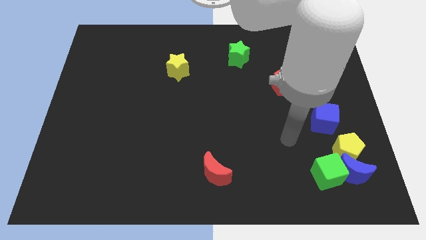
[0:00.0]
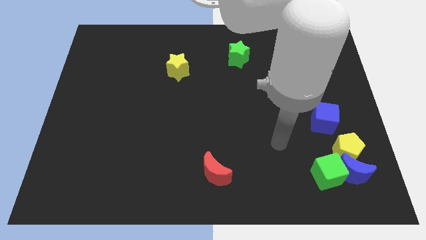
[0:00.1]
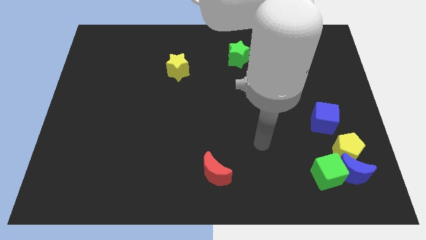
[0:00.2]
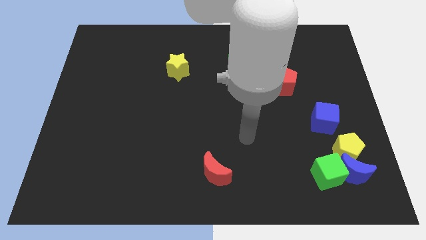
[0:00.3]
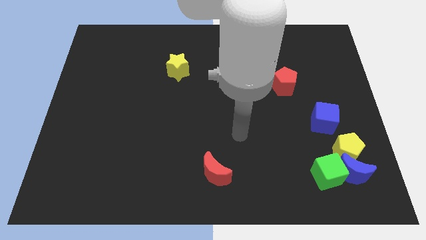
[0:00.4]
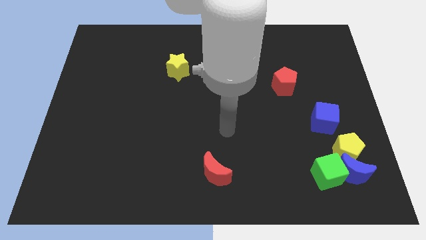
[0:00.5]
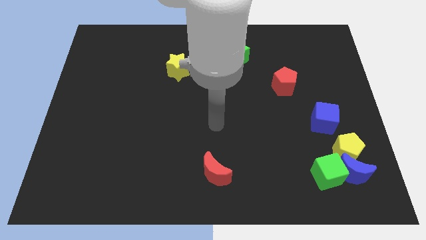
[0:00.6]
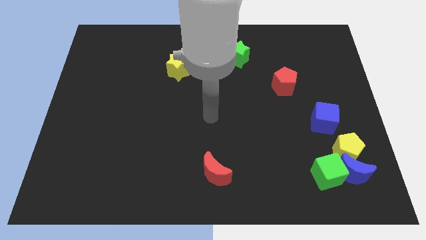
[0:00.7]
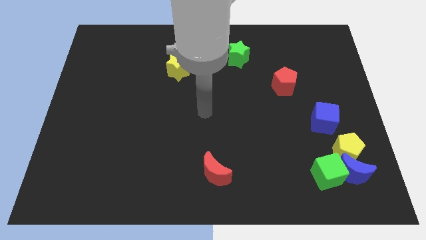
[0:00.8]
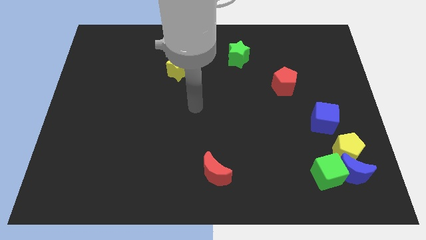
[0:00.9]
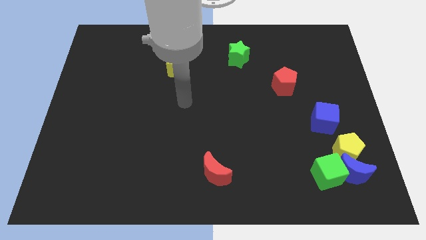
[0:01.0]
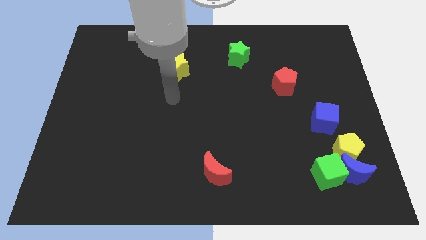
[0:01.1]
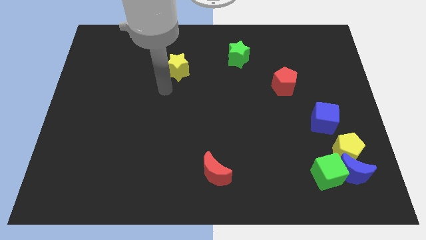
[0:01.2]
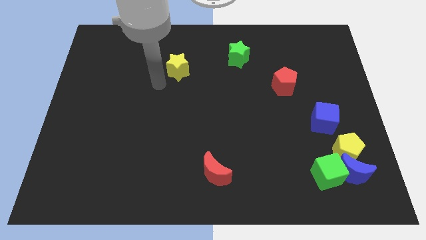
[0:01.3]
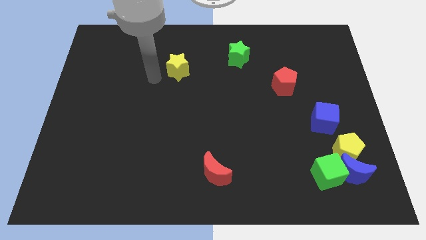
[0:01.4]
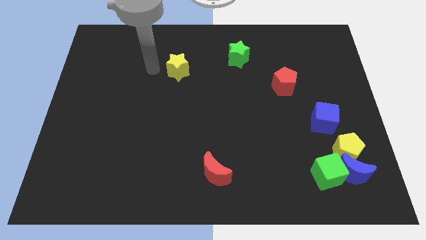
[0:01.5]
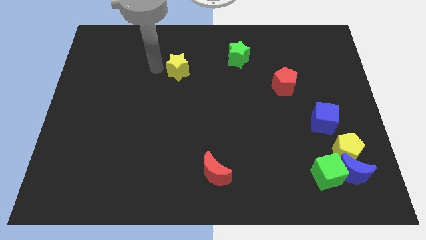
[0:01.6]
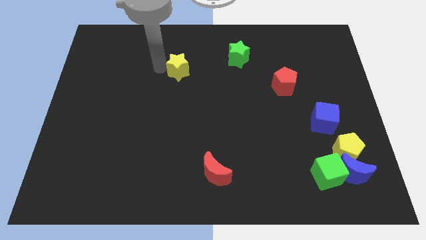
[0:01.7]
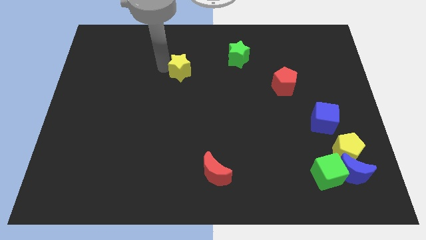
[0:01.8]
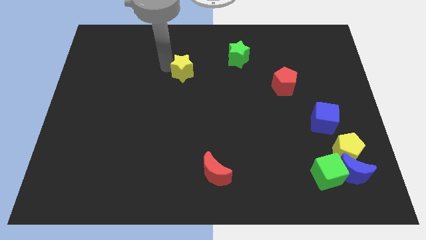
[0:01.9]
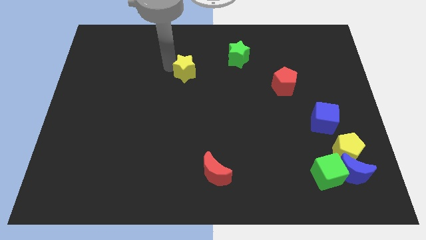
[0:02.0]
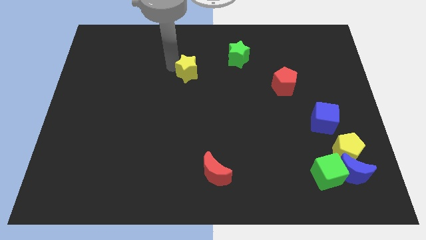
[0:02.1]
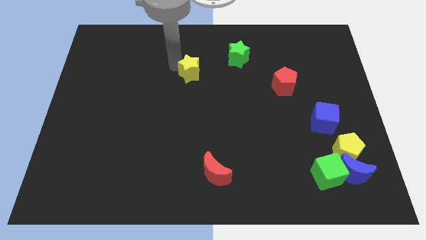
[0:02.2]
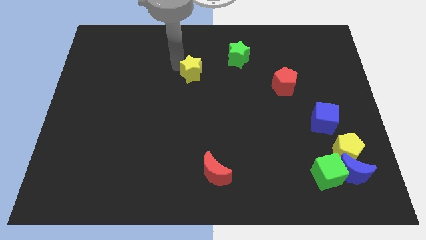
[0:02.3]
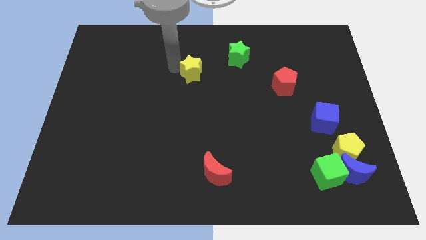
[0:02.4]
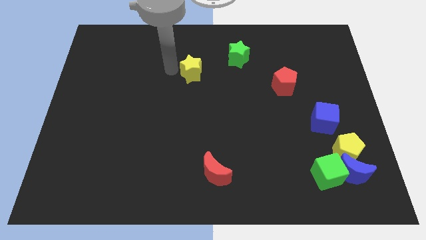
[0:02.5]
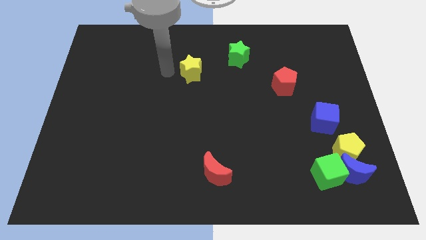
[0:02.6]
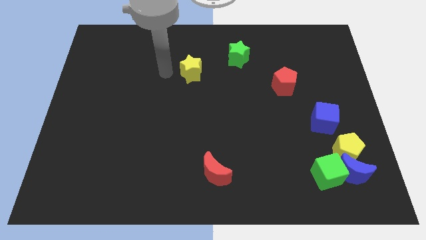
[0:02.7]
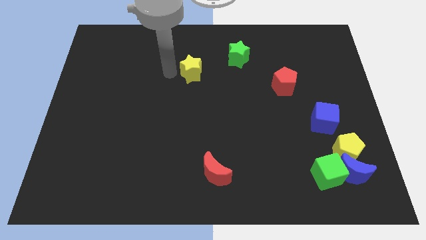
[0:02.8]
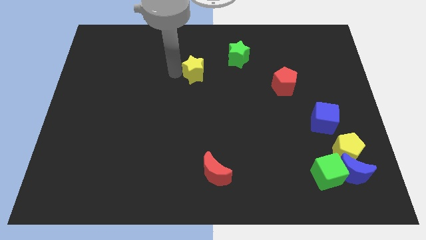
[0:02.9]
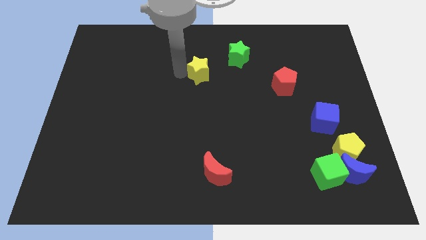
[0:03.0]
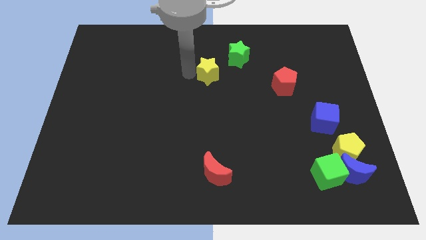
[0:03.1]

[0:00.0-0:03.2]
slightly push the yellow star to the right

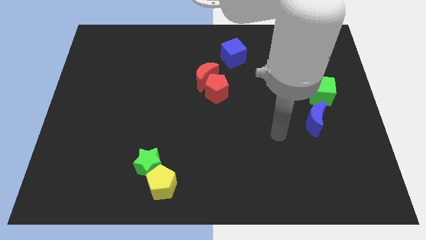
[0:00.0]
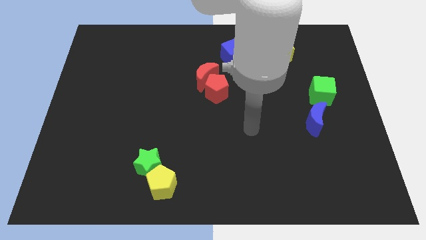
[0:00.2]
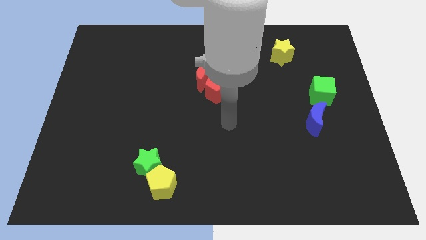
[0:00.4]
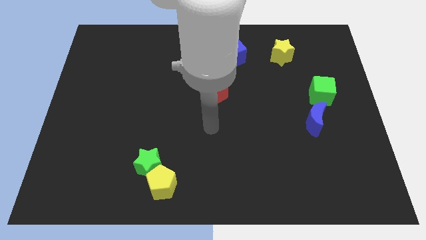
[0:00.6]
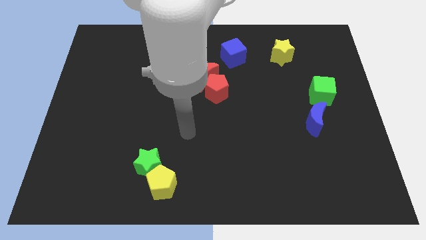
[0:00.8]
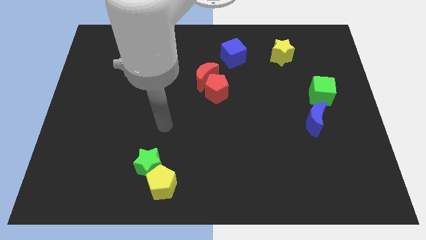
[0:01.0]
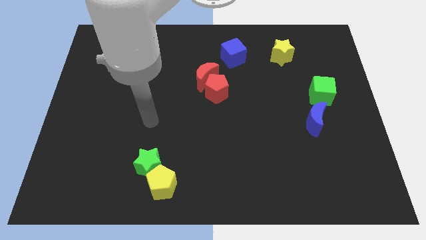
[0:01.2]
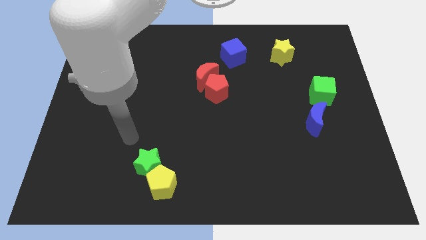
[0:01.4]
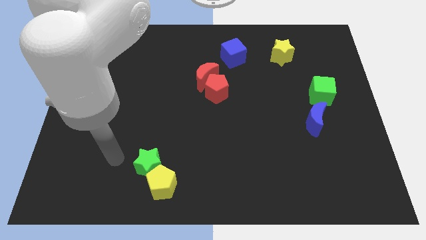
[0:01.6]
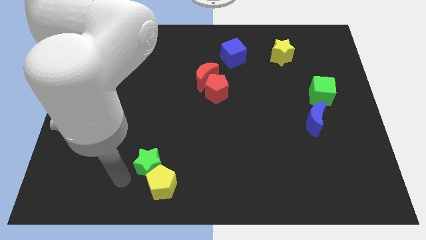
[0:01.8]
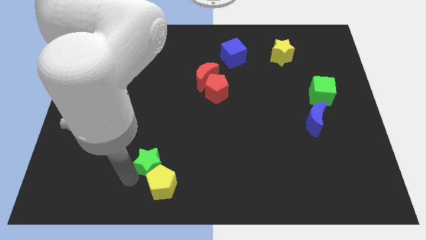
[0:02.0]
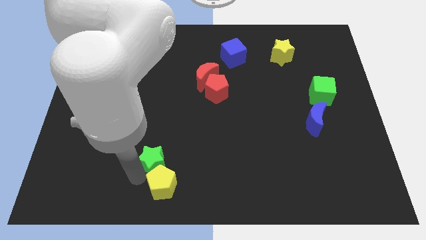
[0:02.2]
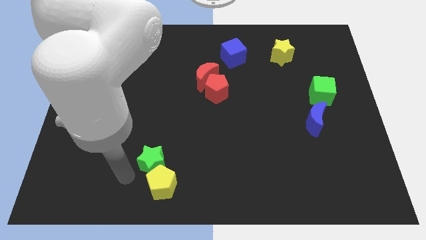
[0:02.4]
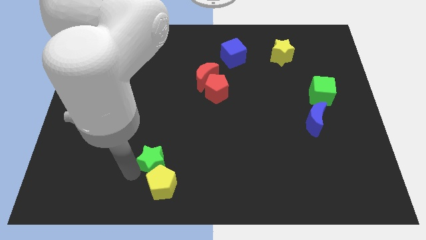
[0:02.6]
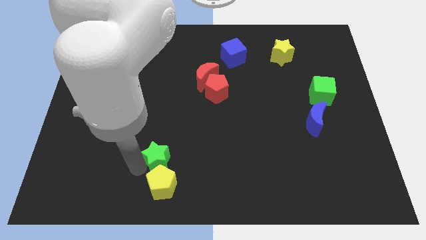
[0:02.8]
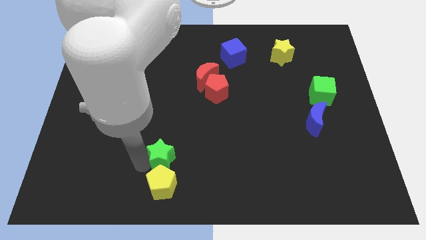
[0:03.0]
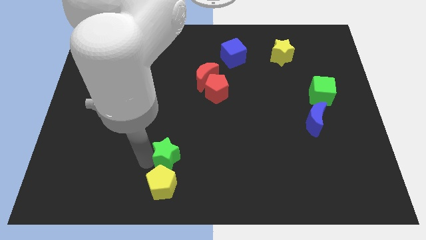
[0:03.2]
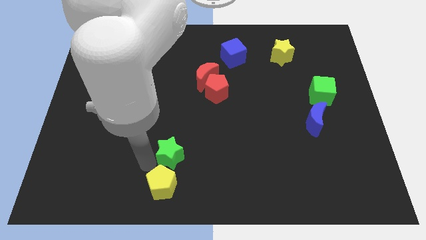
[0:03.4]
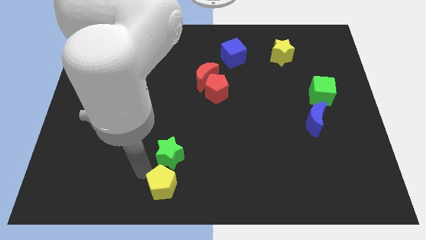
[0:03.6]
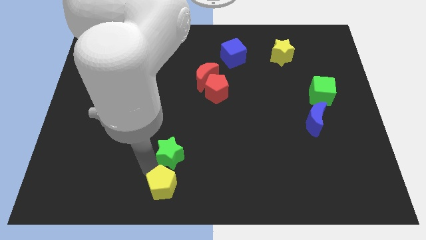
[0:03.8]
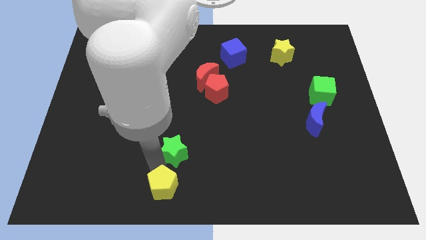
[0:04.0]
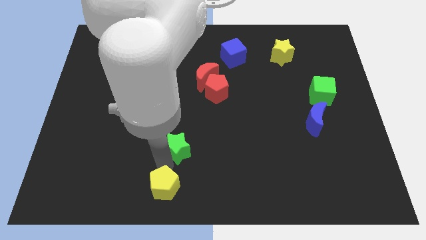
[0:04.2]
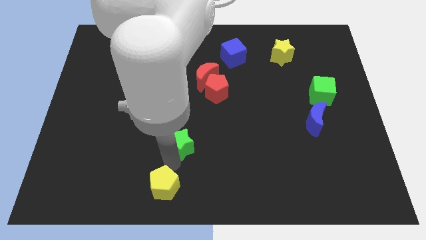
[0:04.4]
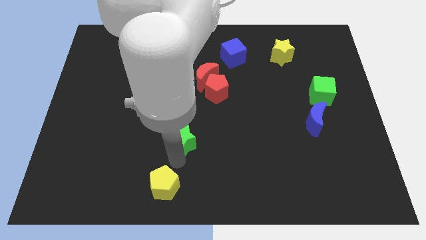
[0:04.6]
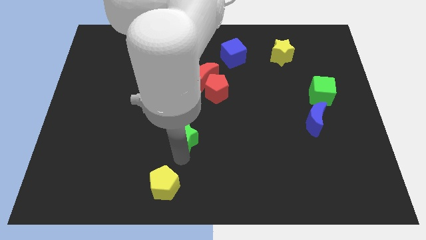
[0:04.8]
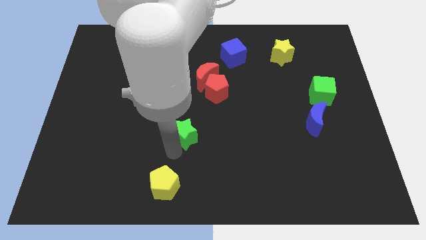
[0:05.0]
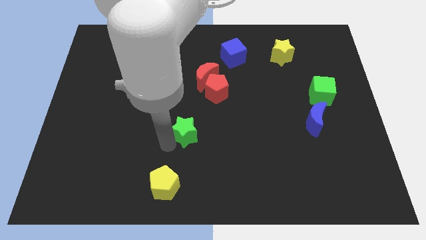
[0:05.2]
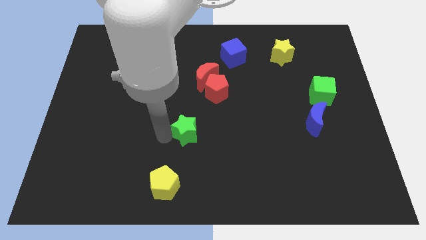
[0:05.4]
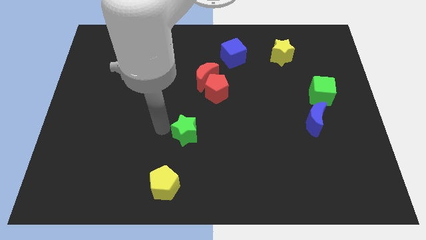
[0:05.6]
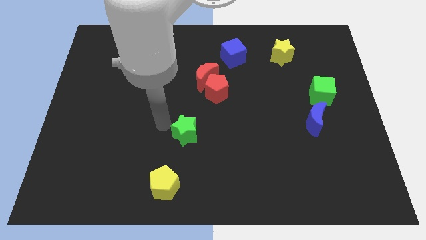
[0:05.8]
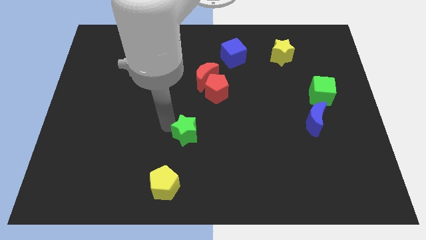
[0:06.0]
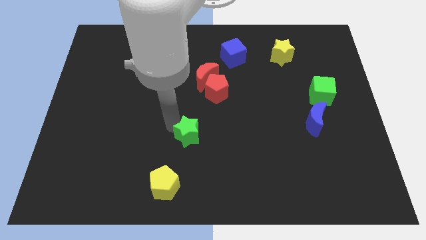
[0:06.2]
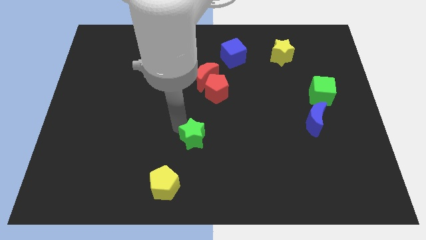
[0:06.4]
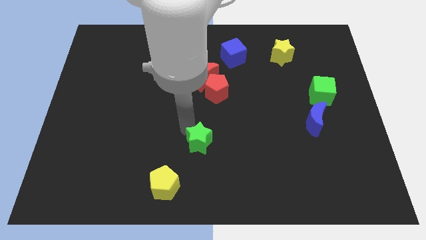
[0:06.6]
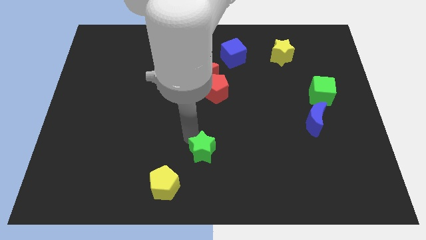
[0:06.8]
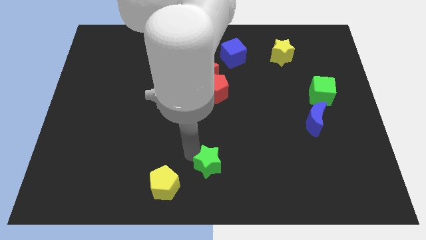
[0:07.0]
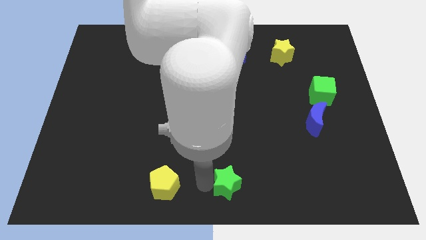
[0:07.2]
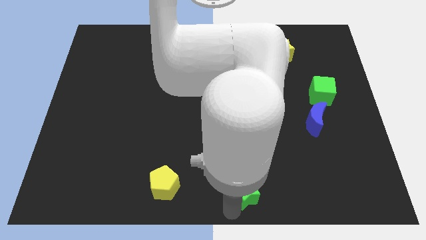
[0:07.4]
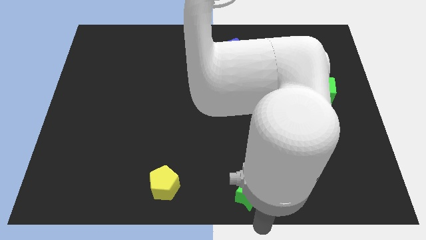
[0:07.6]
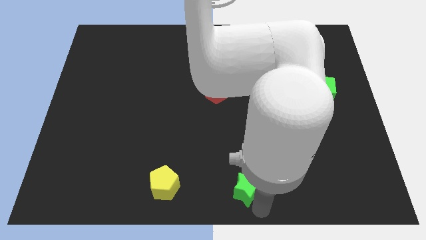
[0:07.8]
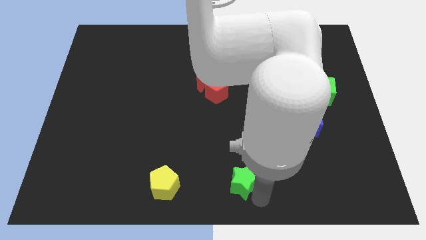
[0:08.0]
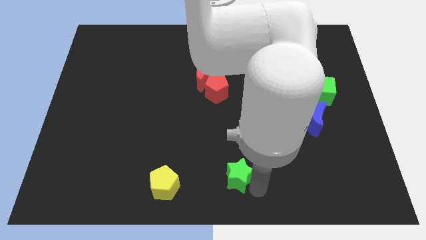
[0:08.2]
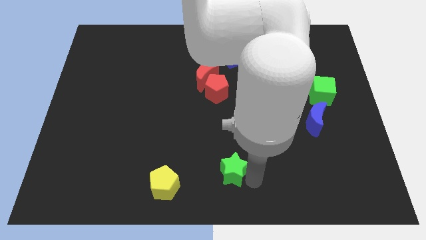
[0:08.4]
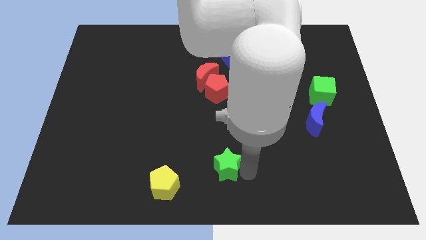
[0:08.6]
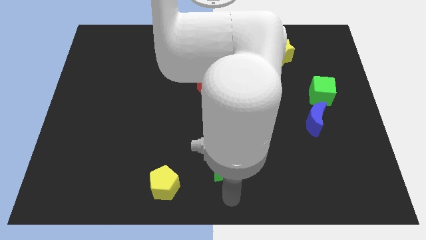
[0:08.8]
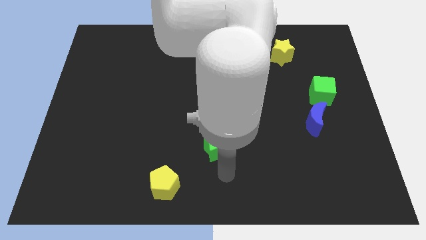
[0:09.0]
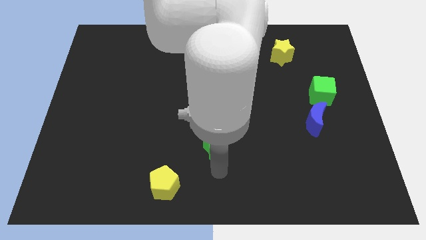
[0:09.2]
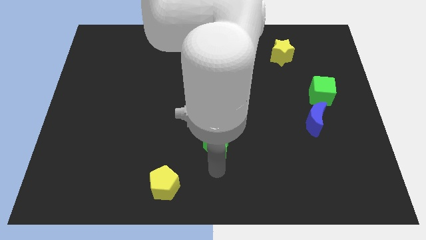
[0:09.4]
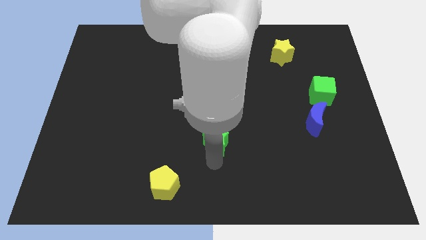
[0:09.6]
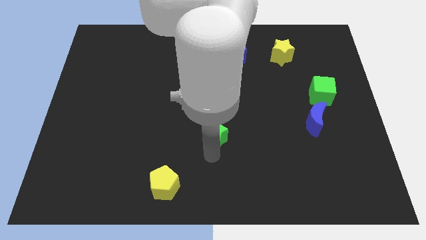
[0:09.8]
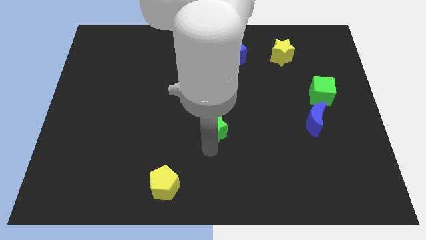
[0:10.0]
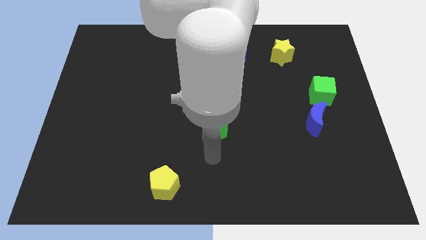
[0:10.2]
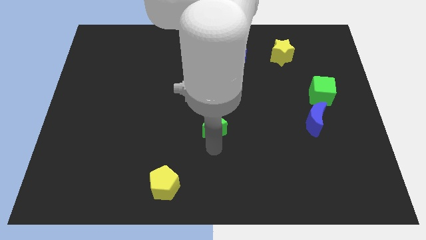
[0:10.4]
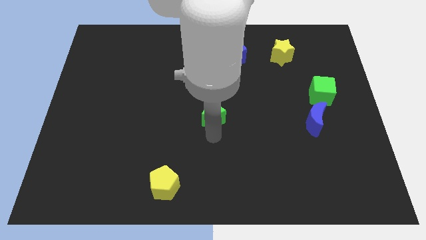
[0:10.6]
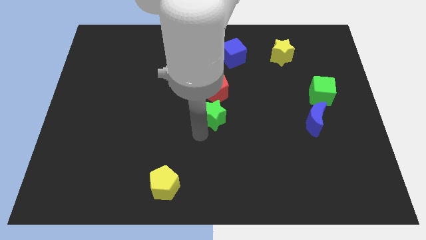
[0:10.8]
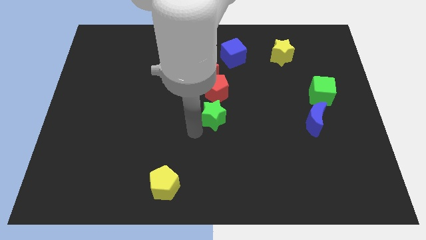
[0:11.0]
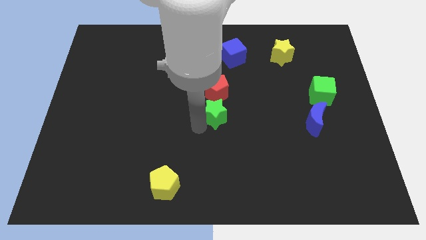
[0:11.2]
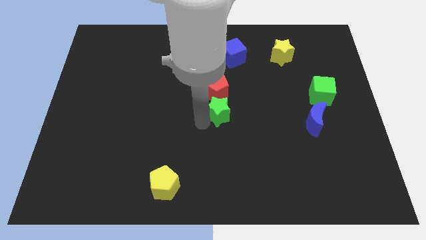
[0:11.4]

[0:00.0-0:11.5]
push the green star upwards and to the right diagonally
